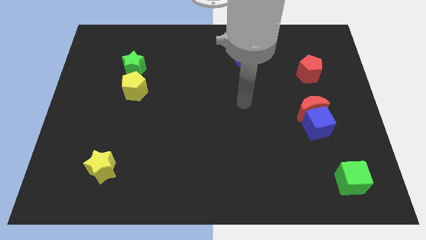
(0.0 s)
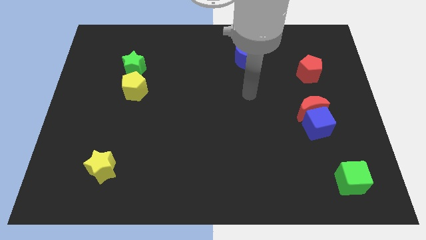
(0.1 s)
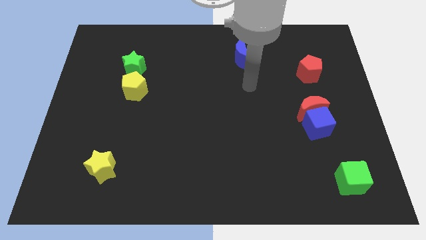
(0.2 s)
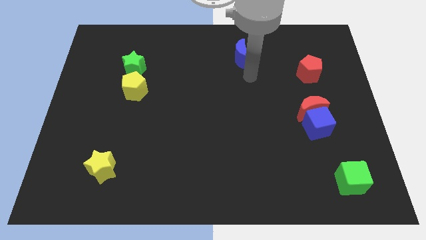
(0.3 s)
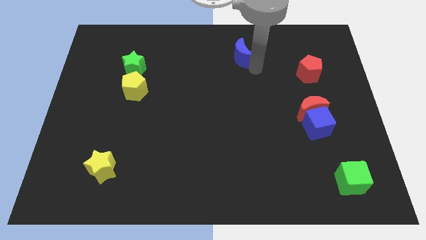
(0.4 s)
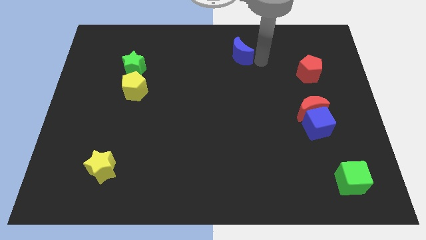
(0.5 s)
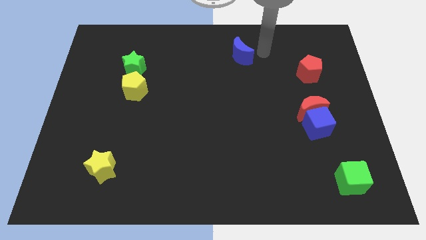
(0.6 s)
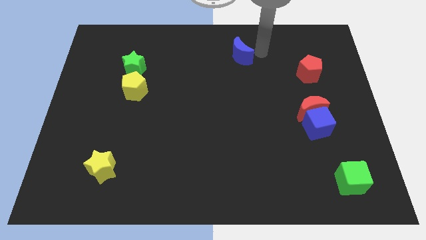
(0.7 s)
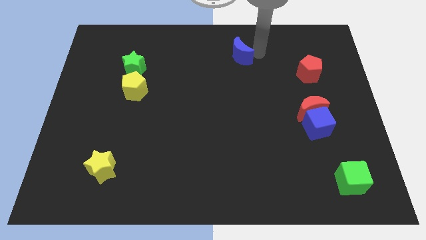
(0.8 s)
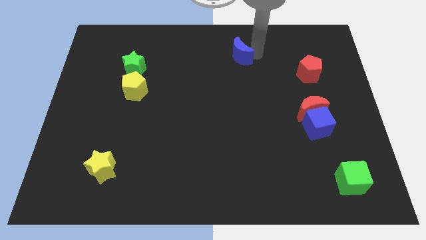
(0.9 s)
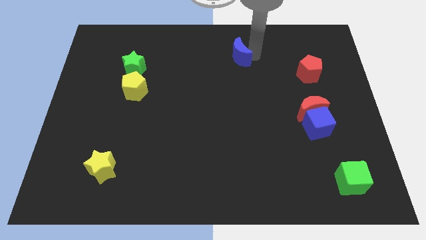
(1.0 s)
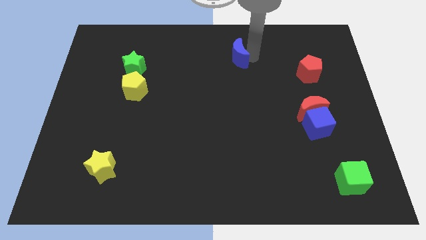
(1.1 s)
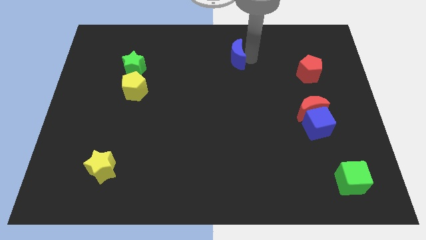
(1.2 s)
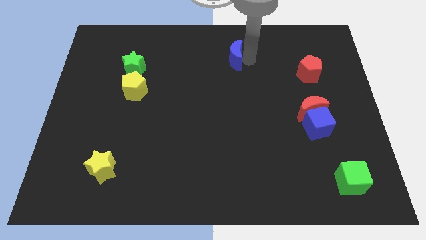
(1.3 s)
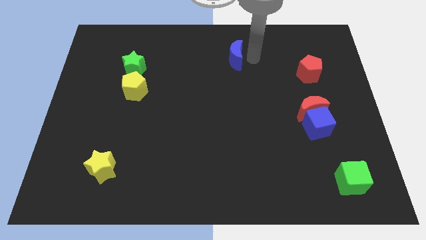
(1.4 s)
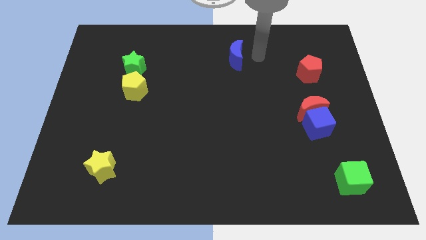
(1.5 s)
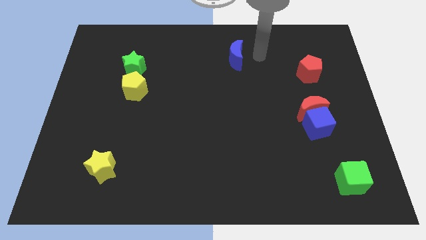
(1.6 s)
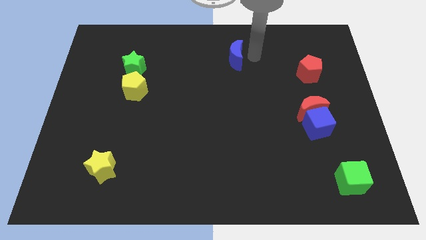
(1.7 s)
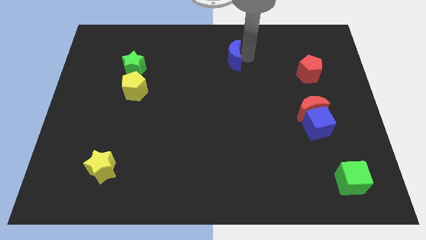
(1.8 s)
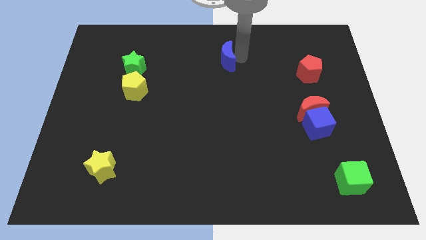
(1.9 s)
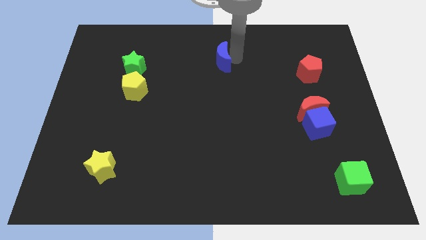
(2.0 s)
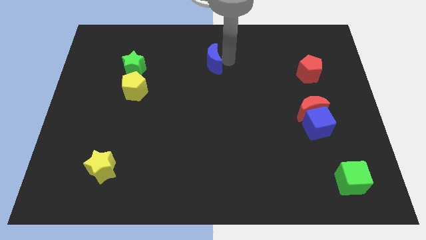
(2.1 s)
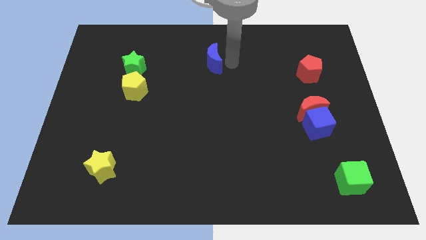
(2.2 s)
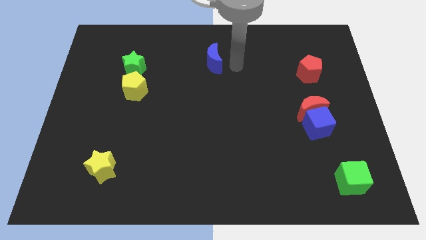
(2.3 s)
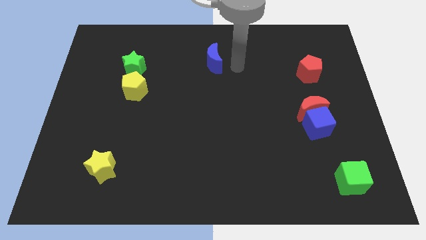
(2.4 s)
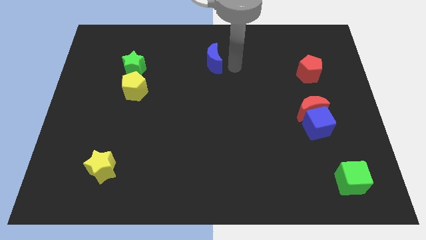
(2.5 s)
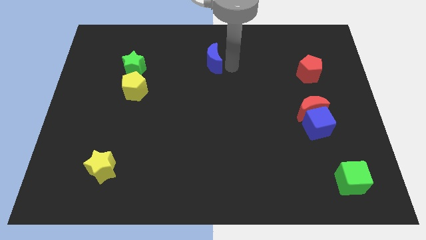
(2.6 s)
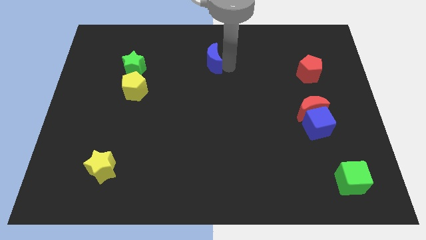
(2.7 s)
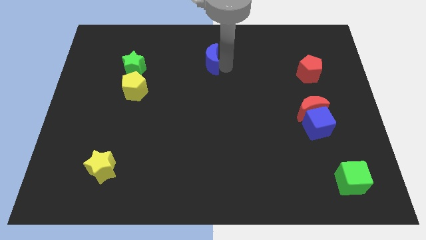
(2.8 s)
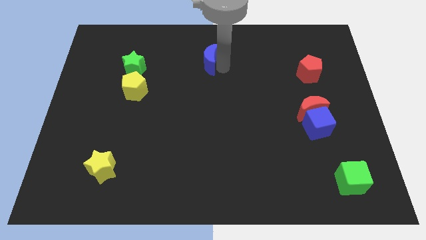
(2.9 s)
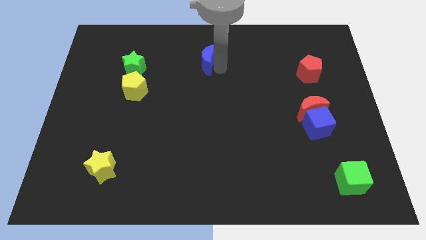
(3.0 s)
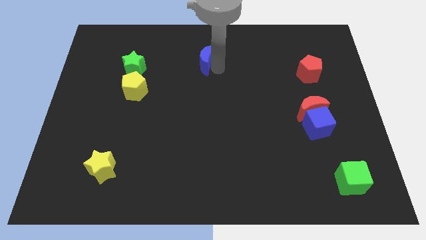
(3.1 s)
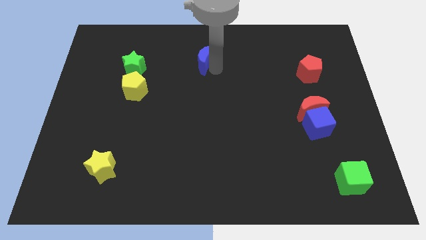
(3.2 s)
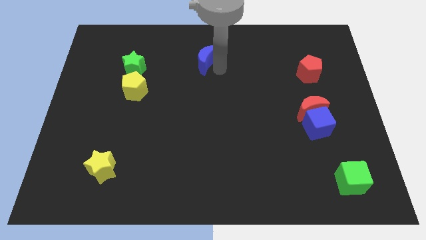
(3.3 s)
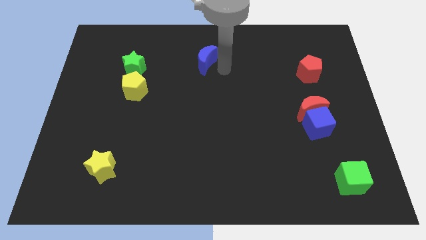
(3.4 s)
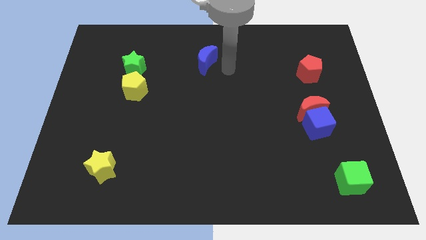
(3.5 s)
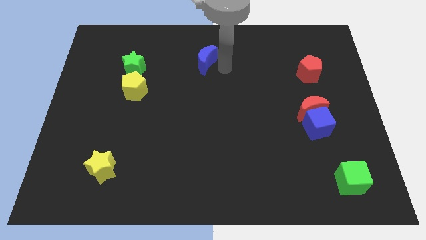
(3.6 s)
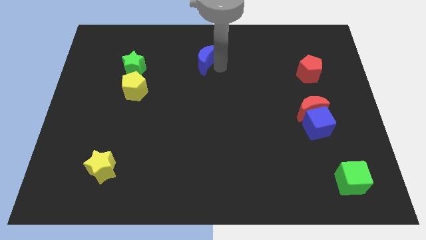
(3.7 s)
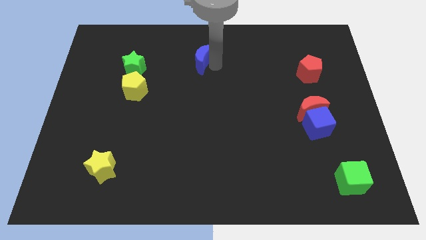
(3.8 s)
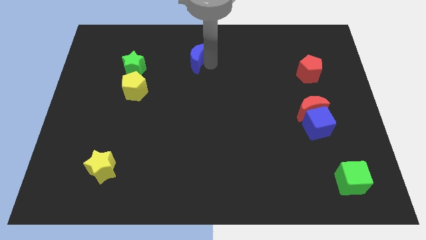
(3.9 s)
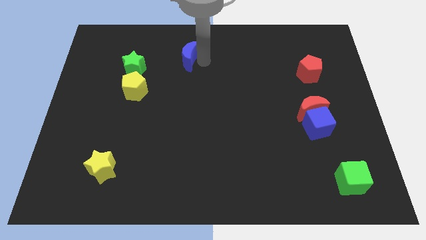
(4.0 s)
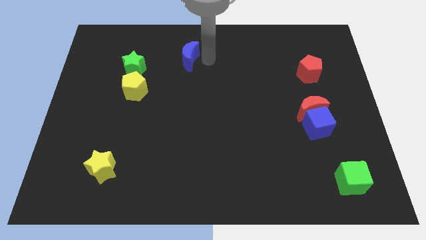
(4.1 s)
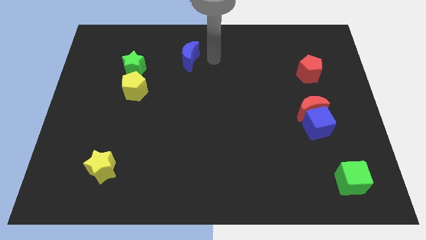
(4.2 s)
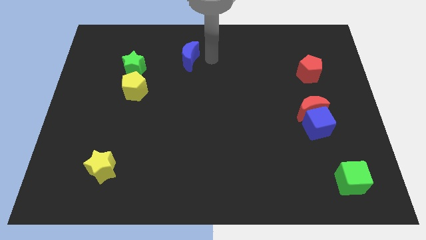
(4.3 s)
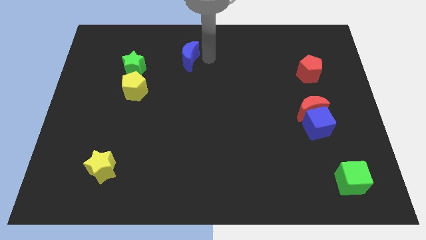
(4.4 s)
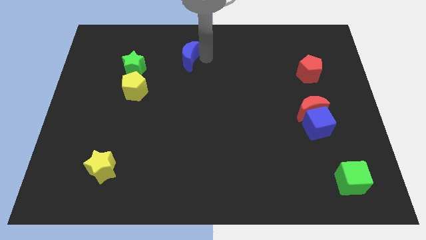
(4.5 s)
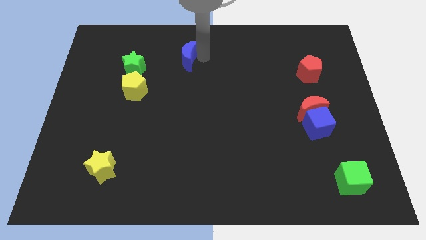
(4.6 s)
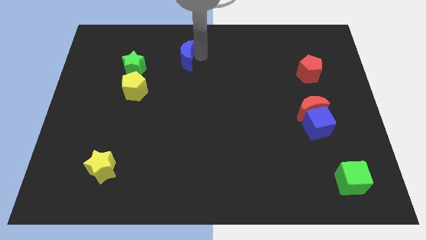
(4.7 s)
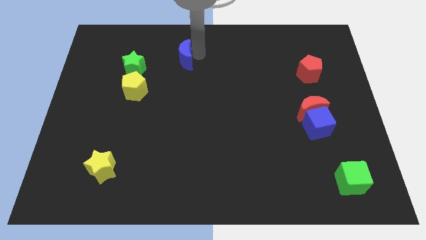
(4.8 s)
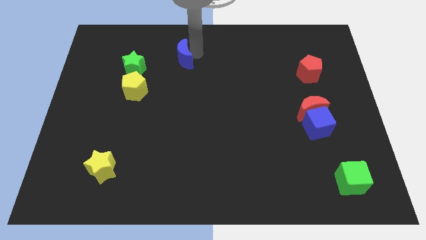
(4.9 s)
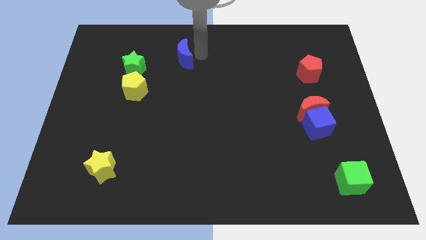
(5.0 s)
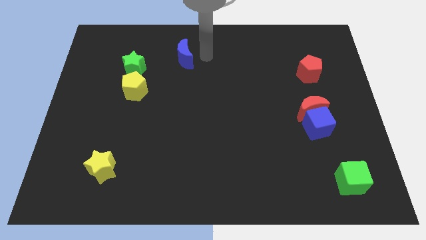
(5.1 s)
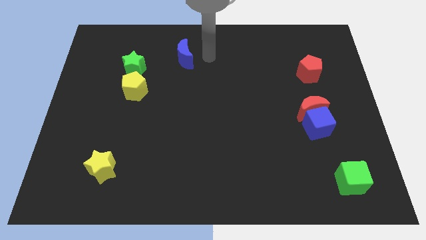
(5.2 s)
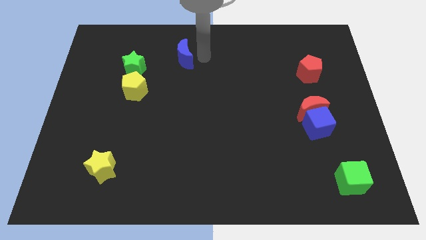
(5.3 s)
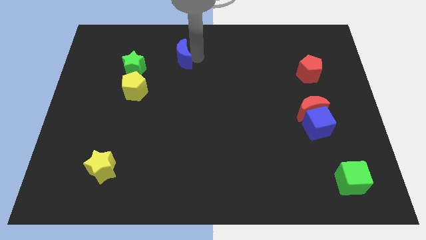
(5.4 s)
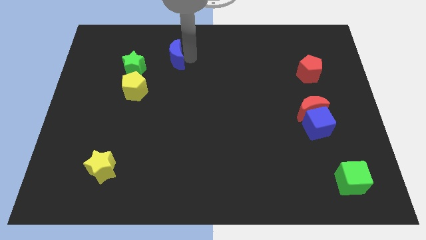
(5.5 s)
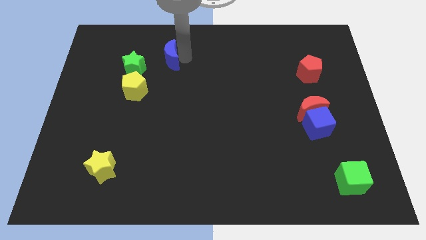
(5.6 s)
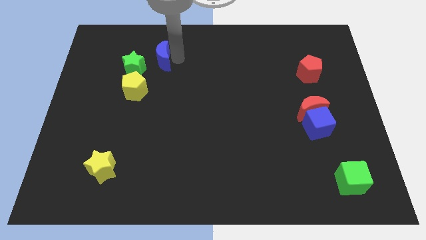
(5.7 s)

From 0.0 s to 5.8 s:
slide the blue moon left

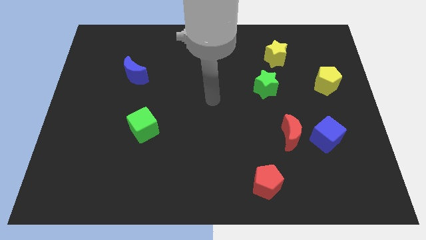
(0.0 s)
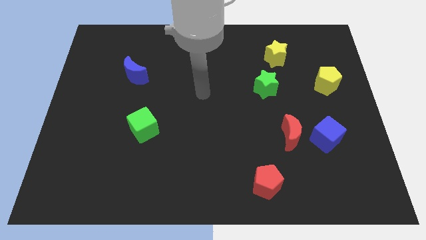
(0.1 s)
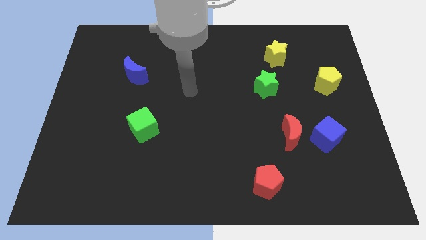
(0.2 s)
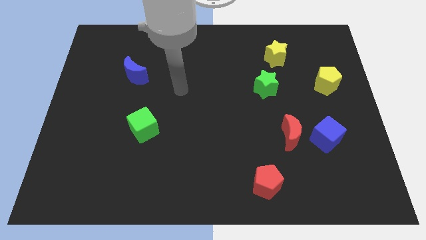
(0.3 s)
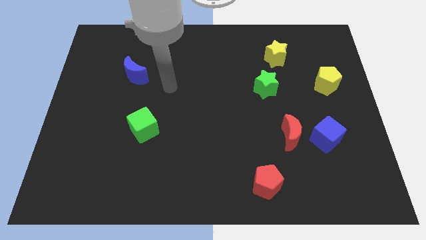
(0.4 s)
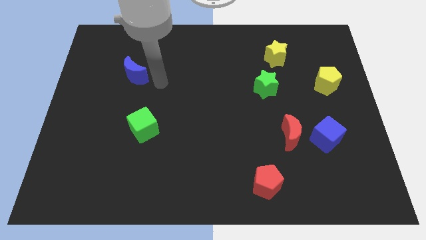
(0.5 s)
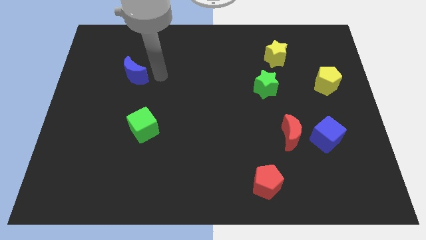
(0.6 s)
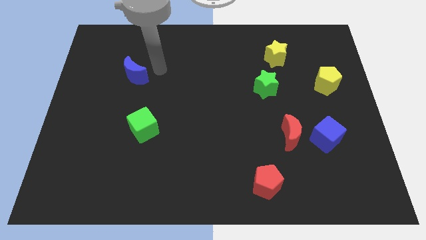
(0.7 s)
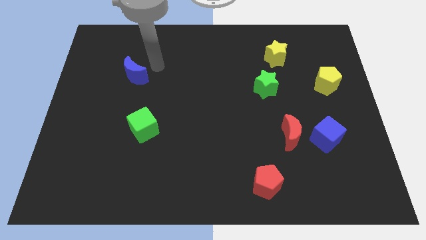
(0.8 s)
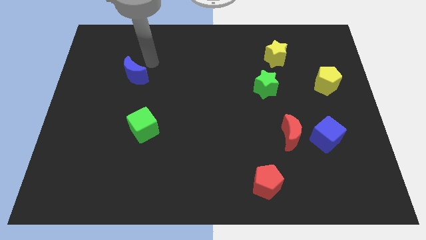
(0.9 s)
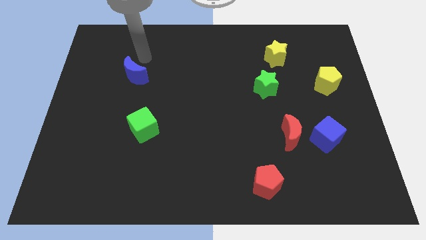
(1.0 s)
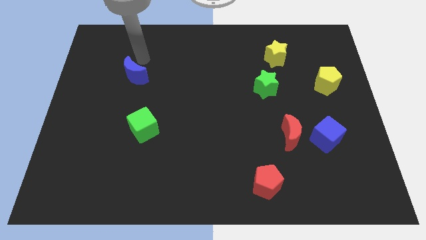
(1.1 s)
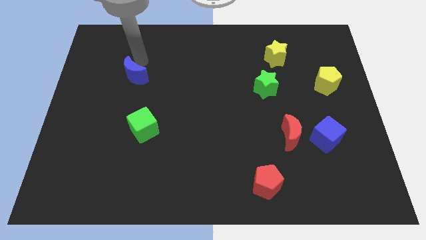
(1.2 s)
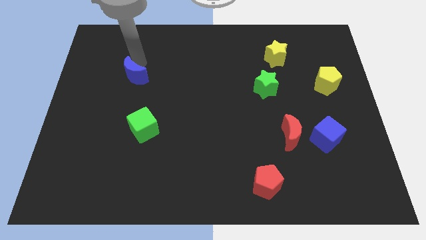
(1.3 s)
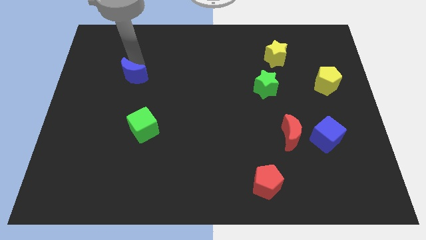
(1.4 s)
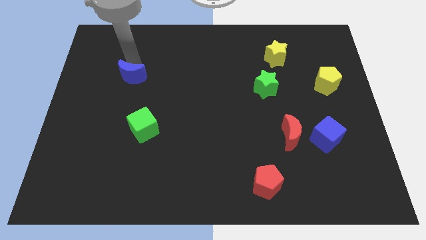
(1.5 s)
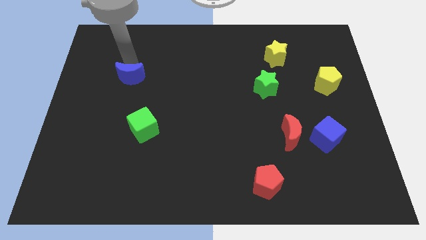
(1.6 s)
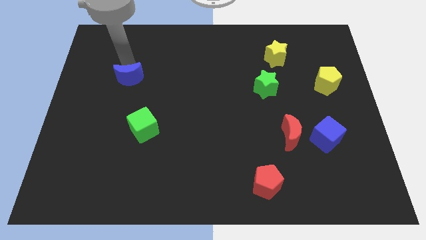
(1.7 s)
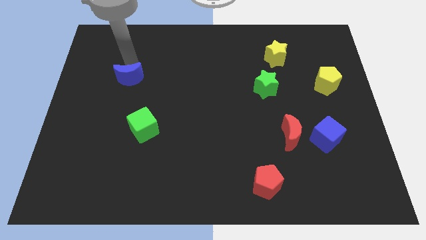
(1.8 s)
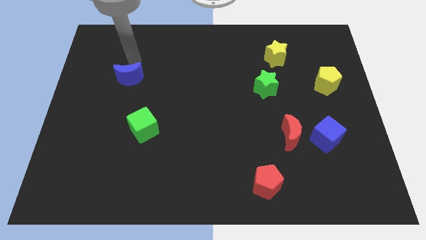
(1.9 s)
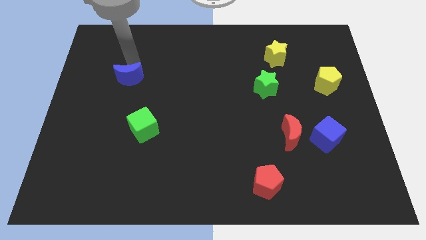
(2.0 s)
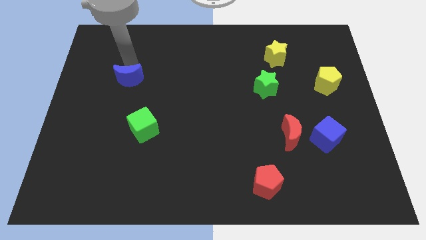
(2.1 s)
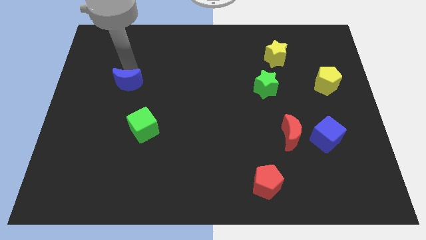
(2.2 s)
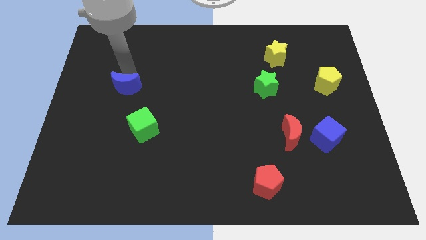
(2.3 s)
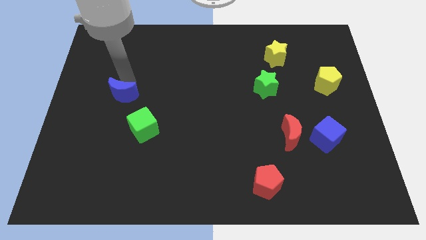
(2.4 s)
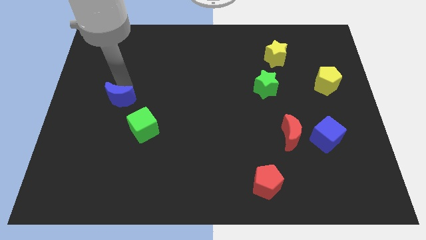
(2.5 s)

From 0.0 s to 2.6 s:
slide the blue moon downwards a little
